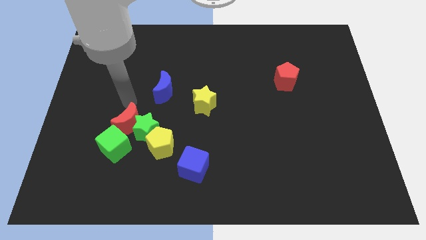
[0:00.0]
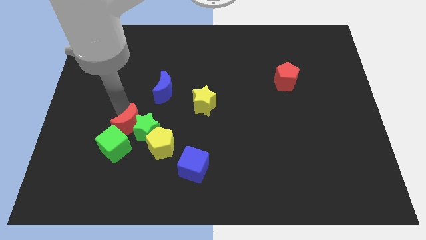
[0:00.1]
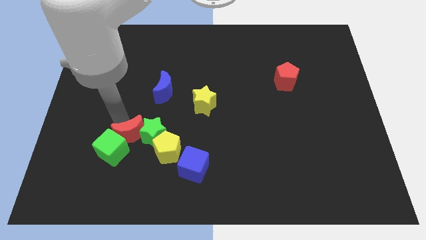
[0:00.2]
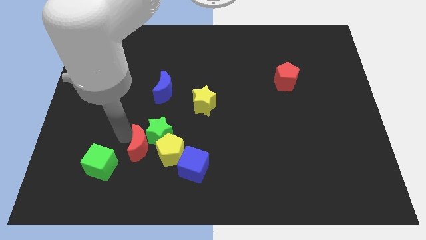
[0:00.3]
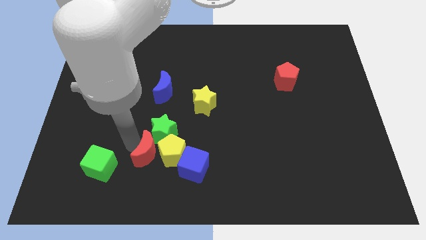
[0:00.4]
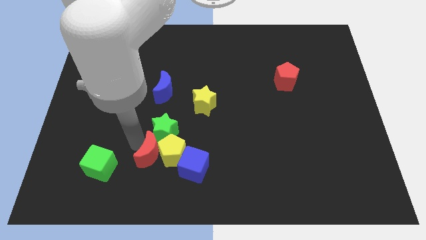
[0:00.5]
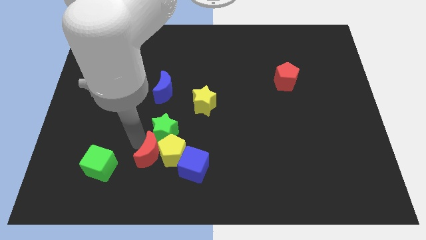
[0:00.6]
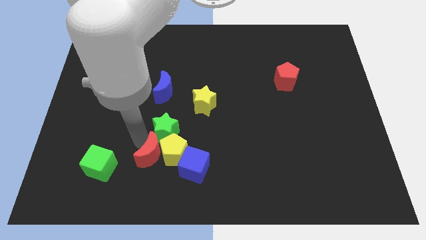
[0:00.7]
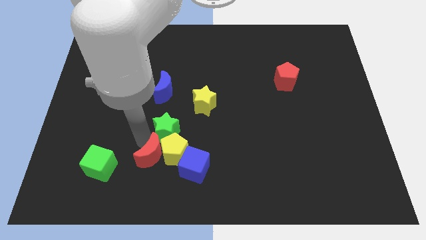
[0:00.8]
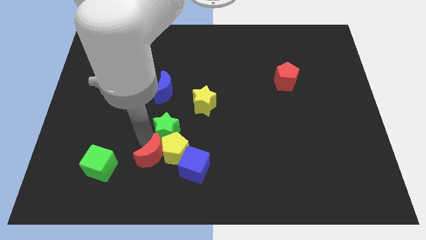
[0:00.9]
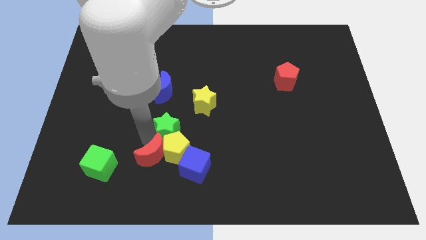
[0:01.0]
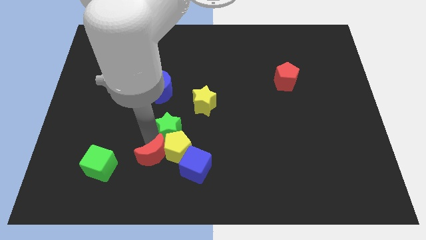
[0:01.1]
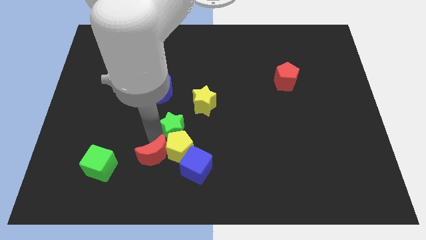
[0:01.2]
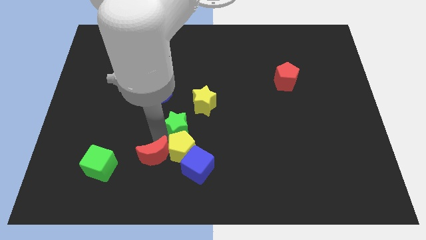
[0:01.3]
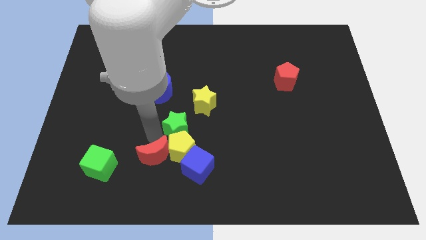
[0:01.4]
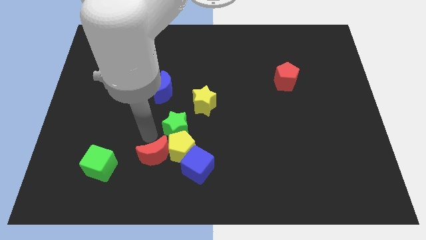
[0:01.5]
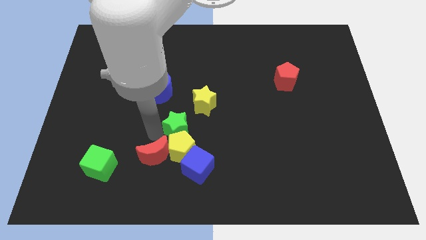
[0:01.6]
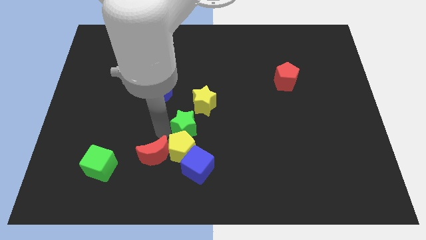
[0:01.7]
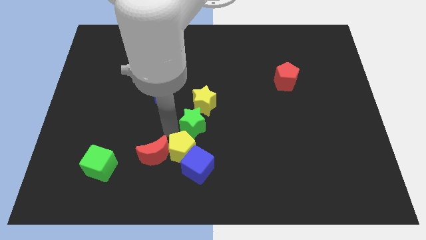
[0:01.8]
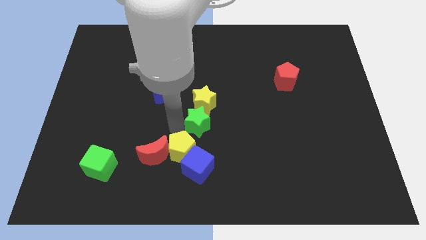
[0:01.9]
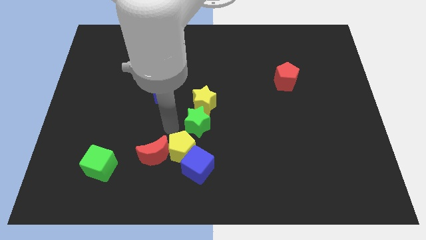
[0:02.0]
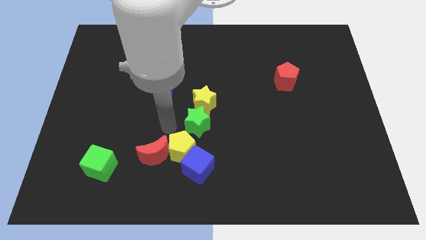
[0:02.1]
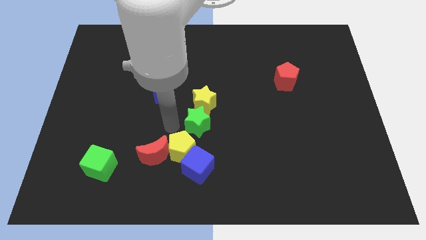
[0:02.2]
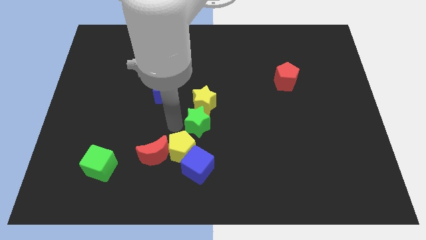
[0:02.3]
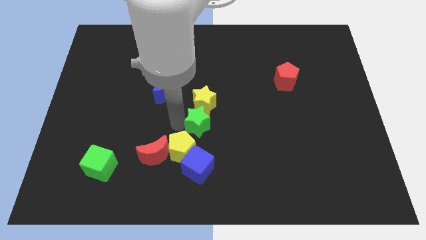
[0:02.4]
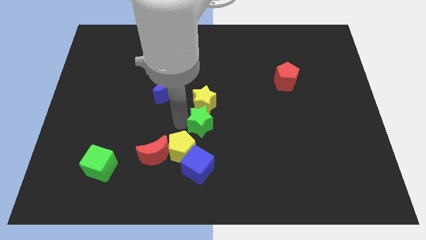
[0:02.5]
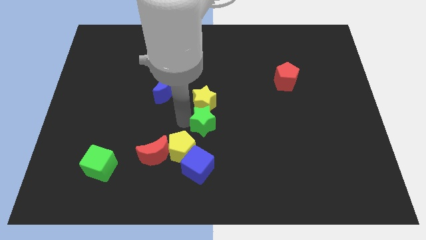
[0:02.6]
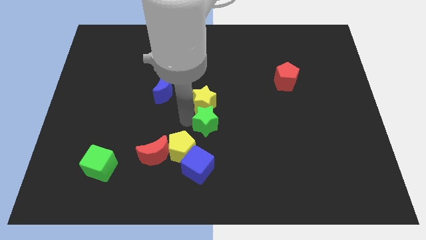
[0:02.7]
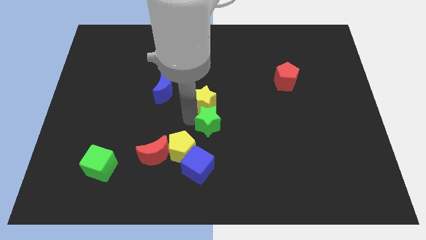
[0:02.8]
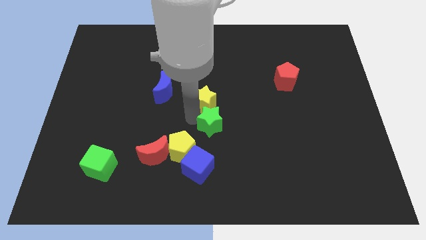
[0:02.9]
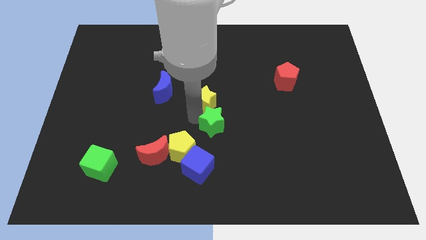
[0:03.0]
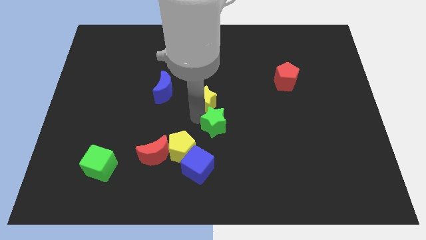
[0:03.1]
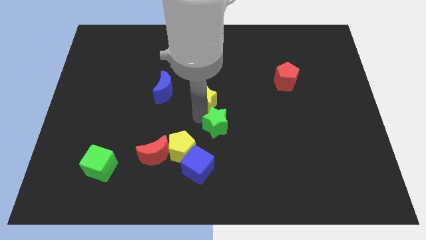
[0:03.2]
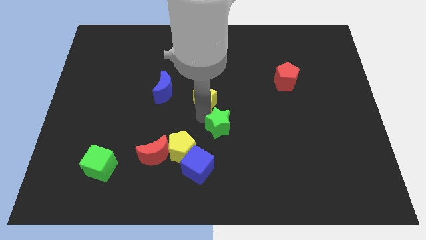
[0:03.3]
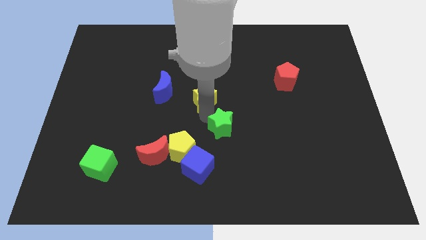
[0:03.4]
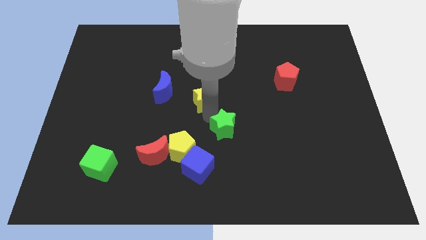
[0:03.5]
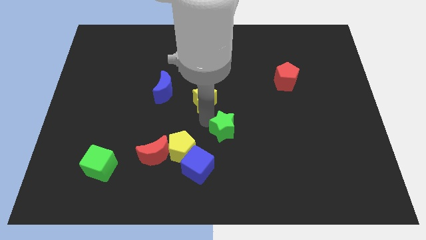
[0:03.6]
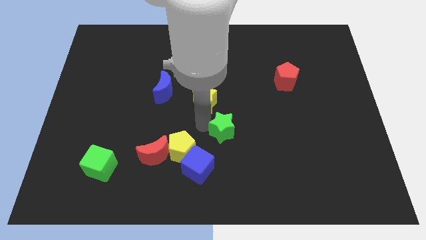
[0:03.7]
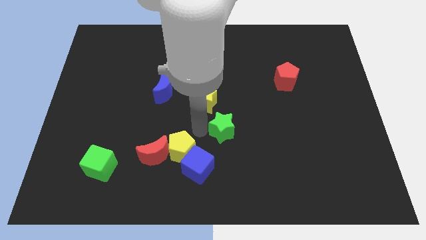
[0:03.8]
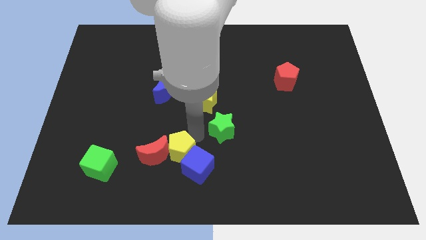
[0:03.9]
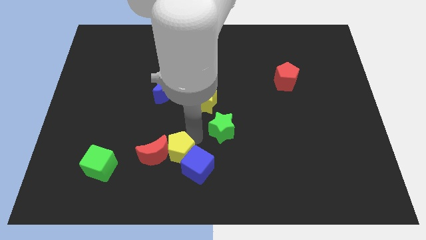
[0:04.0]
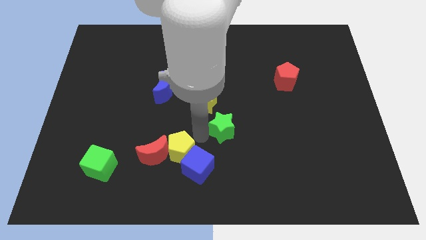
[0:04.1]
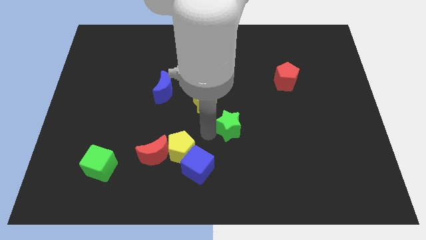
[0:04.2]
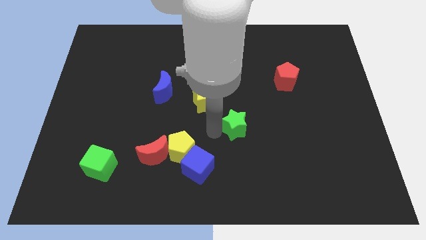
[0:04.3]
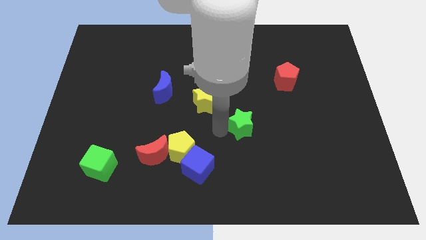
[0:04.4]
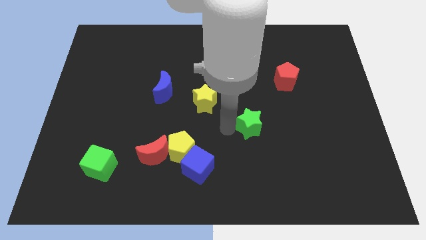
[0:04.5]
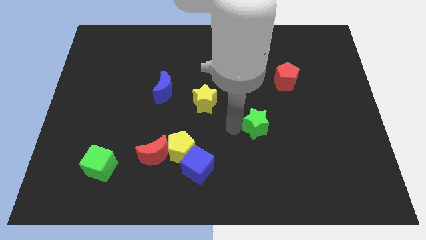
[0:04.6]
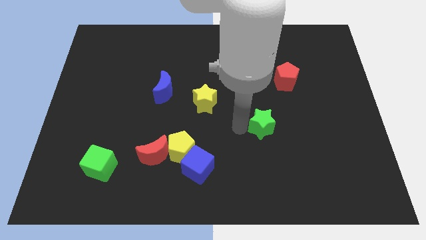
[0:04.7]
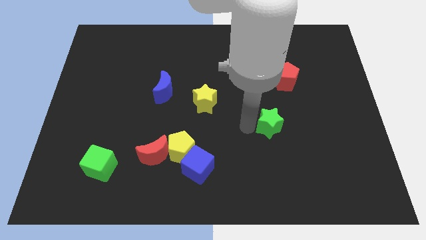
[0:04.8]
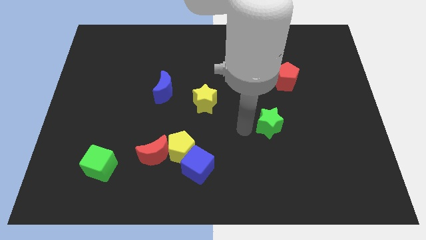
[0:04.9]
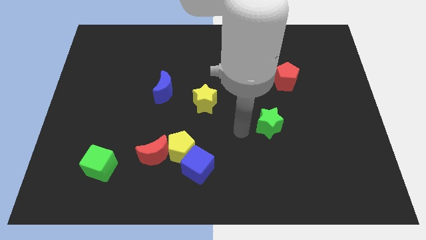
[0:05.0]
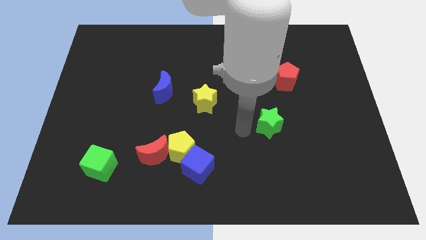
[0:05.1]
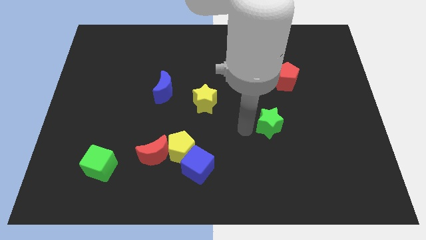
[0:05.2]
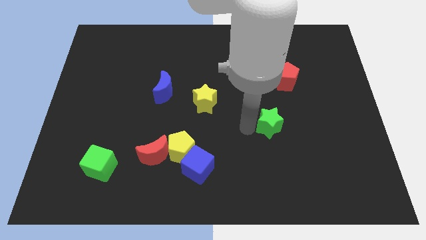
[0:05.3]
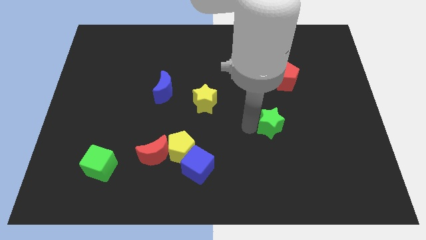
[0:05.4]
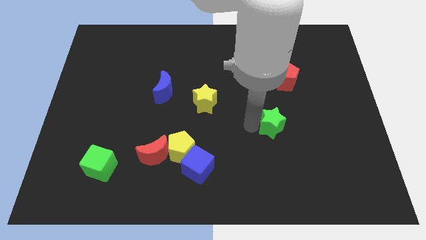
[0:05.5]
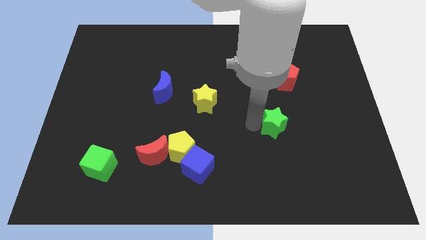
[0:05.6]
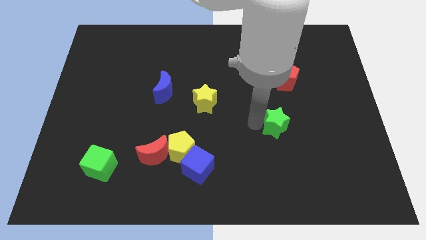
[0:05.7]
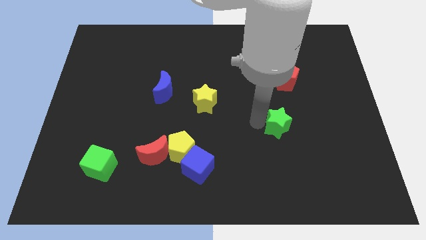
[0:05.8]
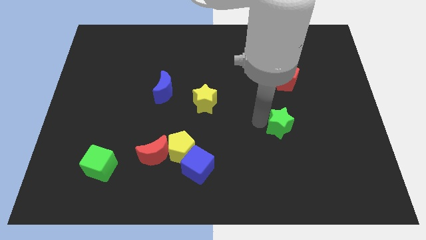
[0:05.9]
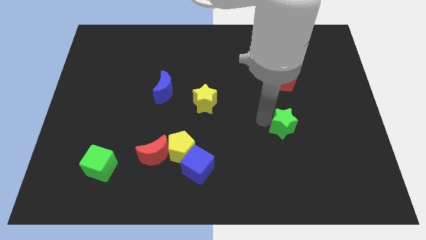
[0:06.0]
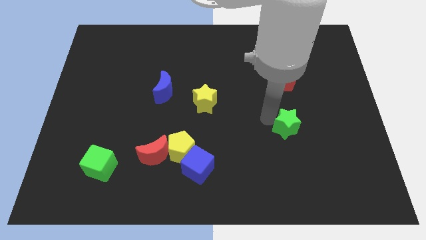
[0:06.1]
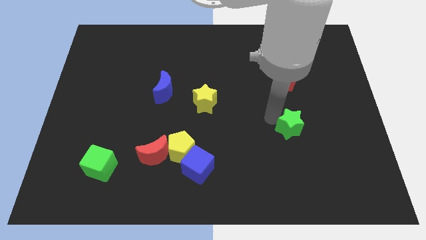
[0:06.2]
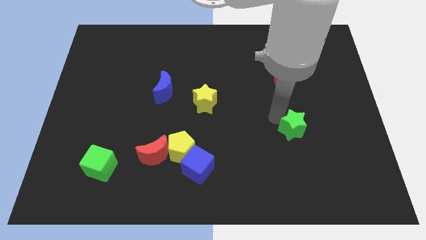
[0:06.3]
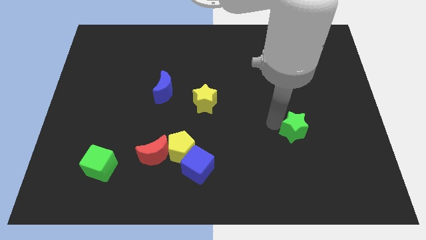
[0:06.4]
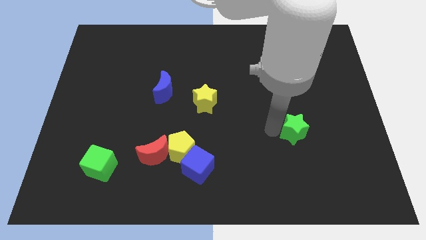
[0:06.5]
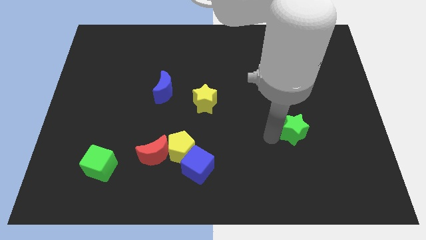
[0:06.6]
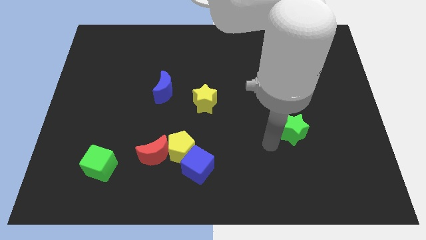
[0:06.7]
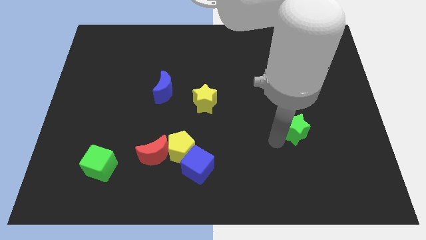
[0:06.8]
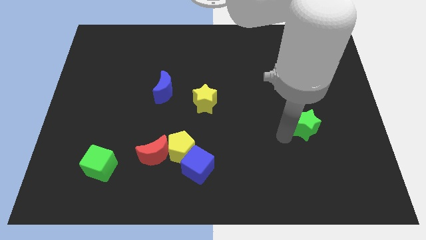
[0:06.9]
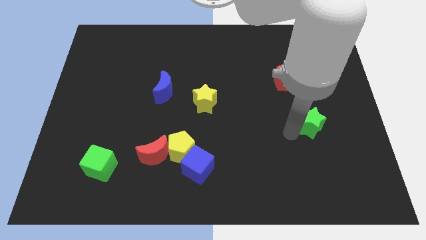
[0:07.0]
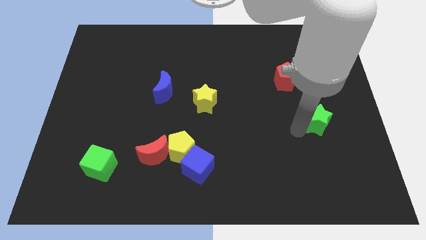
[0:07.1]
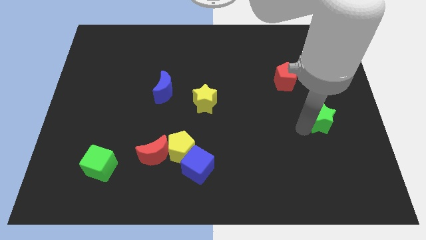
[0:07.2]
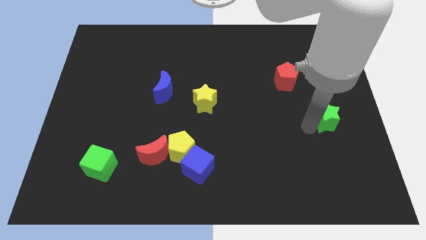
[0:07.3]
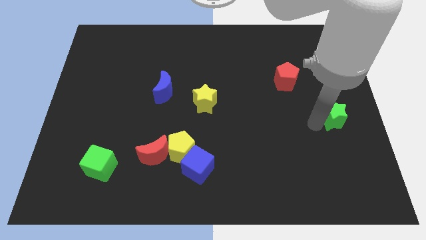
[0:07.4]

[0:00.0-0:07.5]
push the green star to the right side
